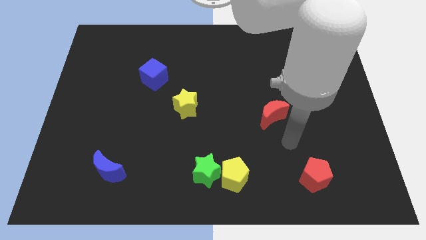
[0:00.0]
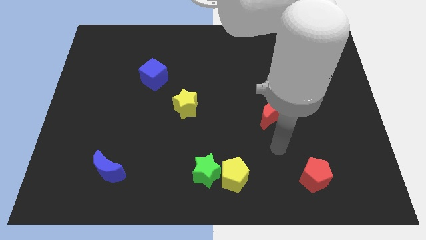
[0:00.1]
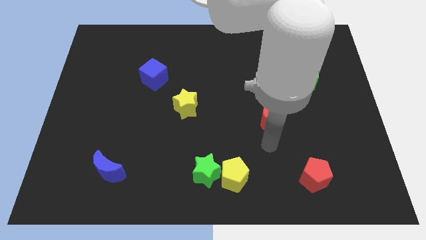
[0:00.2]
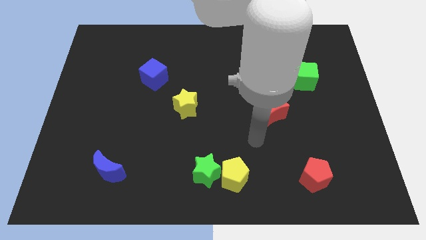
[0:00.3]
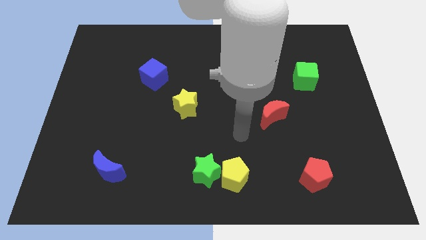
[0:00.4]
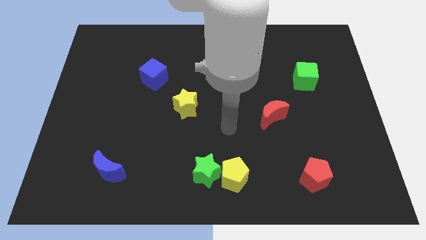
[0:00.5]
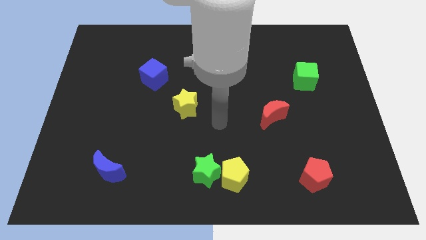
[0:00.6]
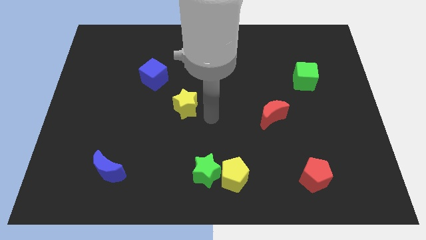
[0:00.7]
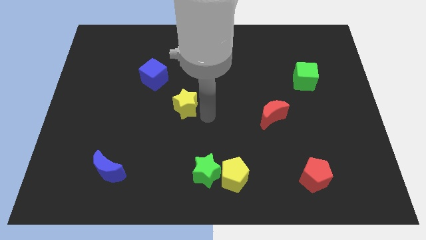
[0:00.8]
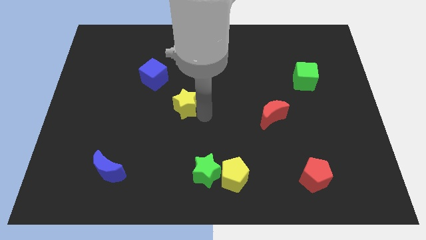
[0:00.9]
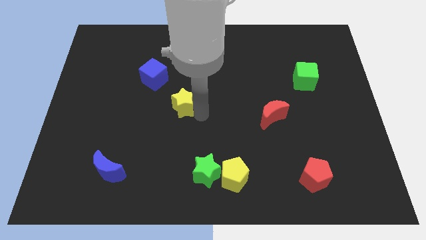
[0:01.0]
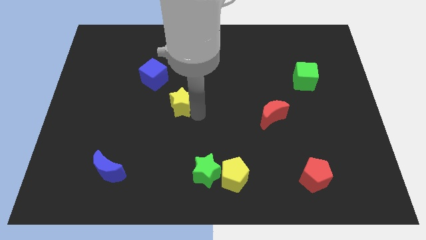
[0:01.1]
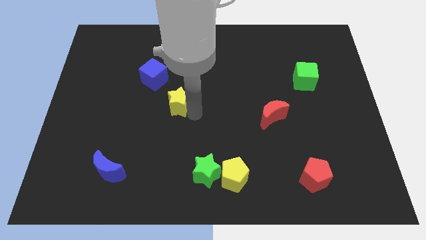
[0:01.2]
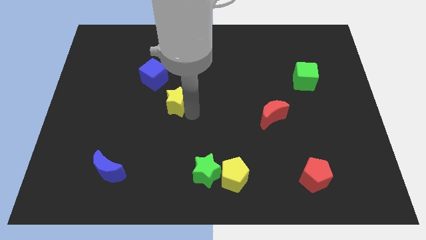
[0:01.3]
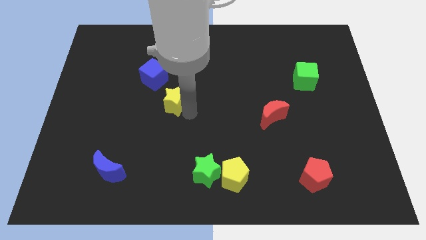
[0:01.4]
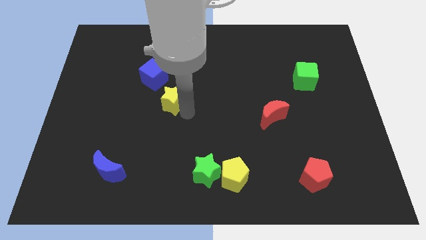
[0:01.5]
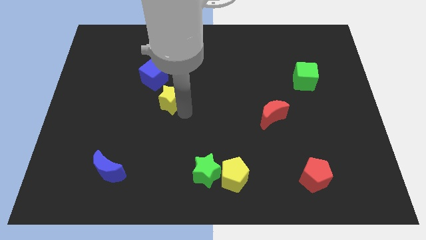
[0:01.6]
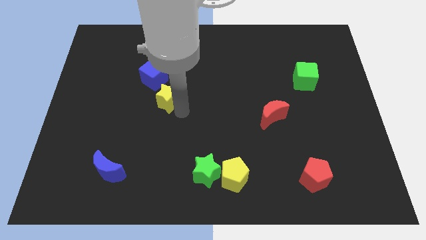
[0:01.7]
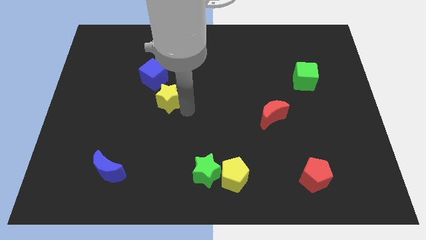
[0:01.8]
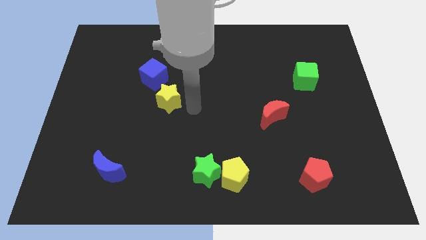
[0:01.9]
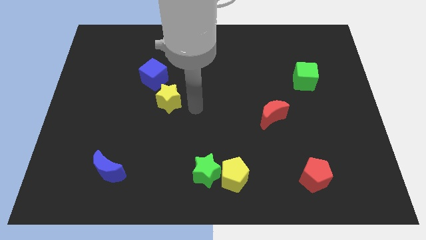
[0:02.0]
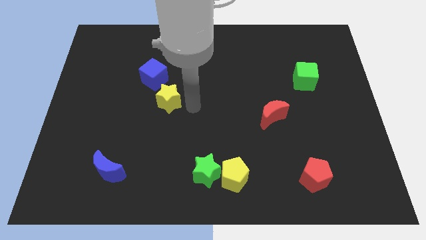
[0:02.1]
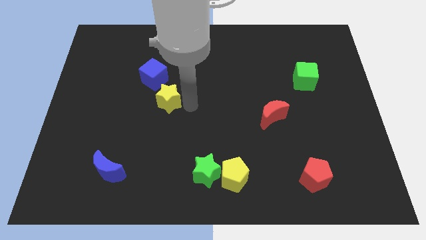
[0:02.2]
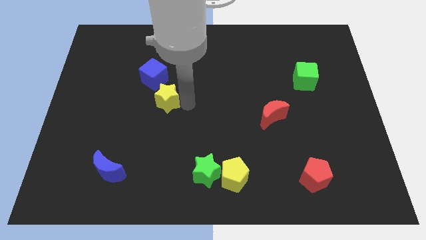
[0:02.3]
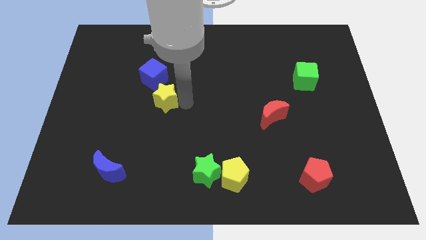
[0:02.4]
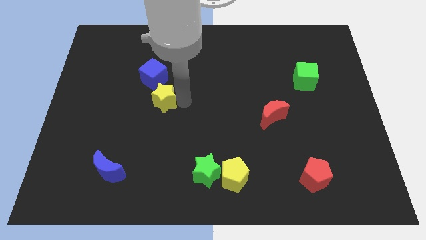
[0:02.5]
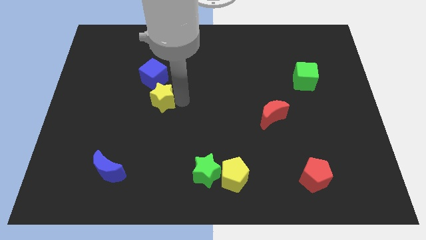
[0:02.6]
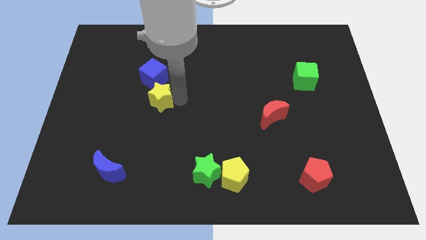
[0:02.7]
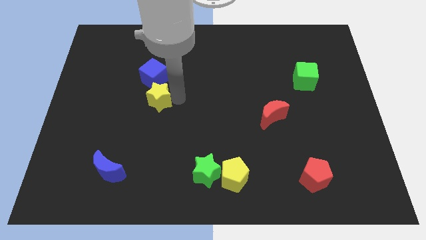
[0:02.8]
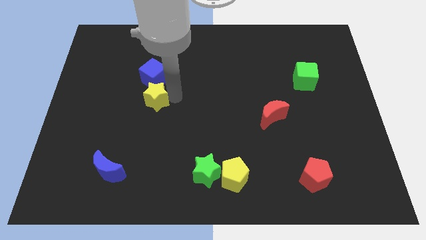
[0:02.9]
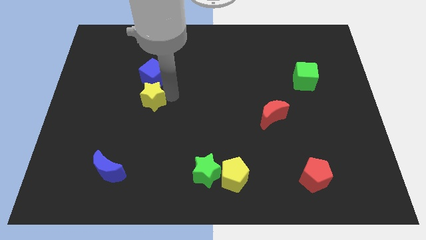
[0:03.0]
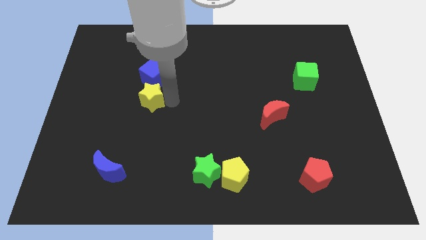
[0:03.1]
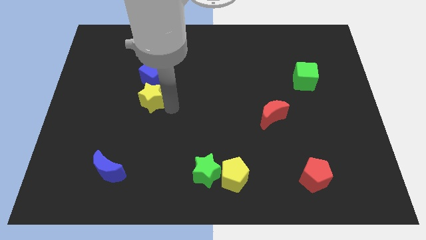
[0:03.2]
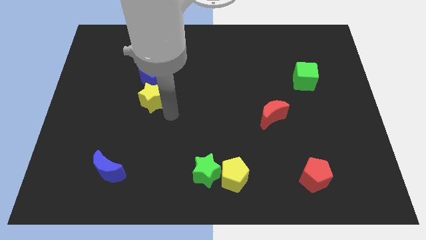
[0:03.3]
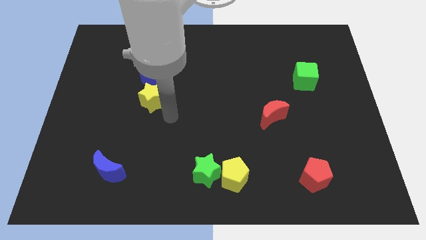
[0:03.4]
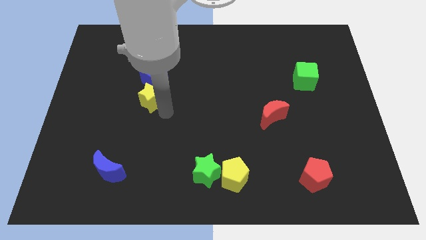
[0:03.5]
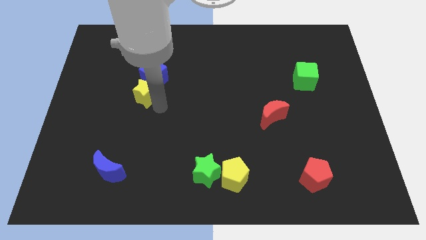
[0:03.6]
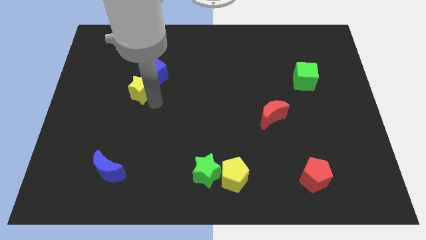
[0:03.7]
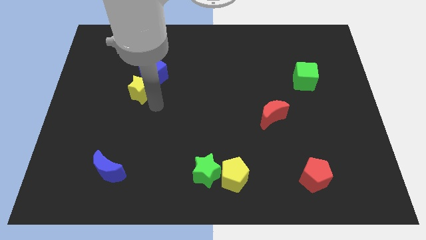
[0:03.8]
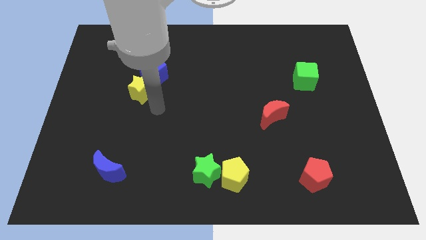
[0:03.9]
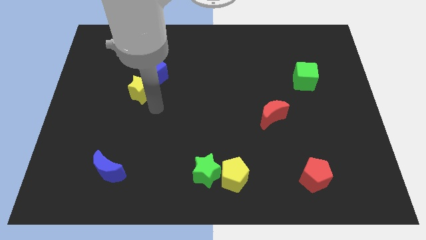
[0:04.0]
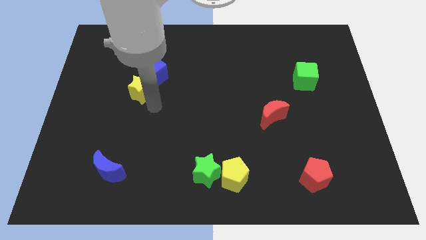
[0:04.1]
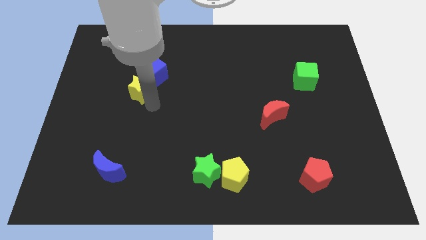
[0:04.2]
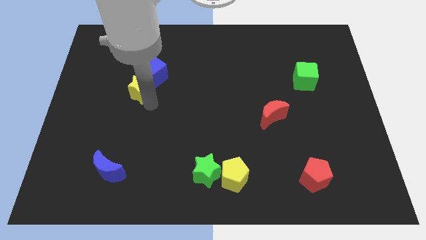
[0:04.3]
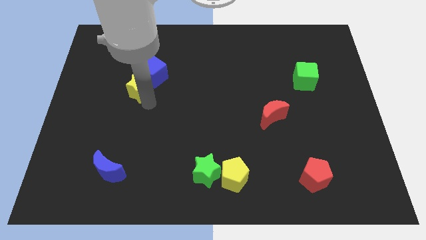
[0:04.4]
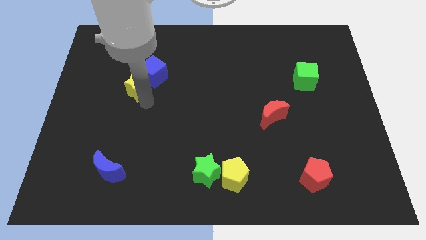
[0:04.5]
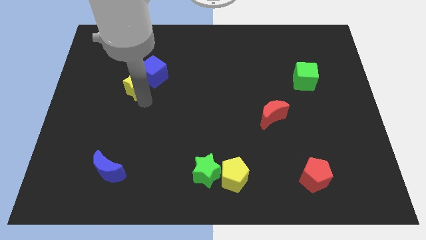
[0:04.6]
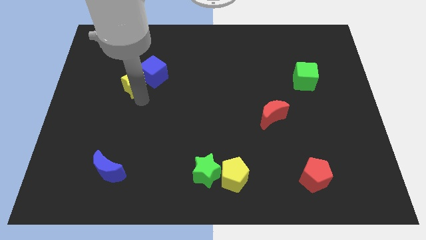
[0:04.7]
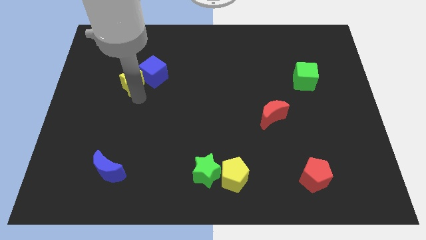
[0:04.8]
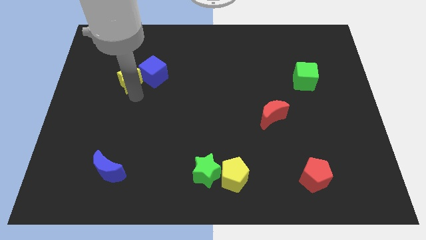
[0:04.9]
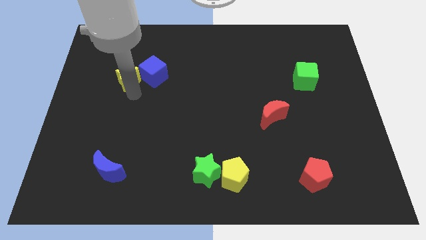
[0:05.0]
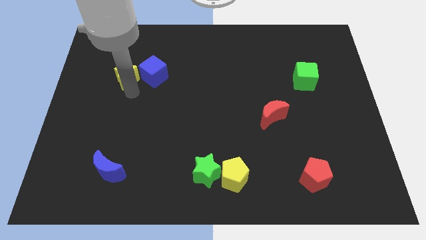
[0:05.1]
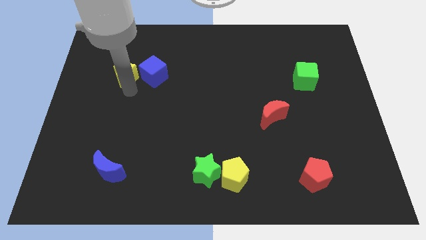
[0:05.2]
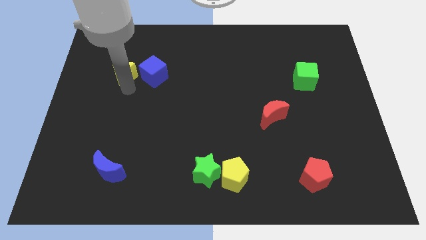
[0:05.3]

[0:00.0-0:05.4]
move the yellow star to the top left side of the blue cube

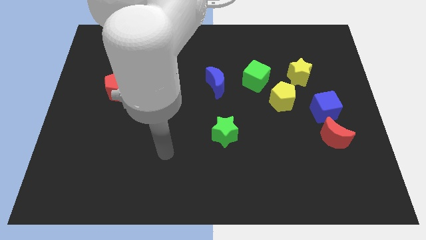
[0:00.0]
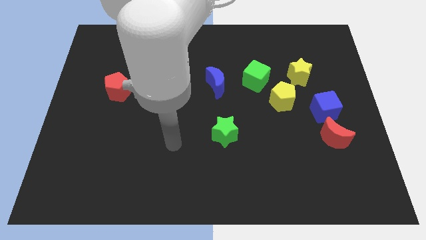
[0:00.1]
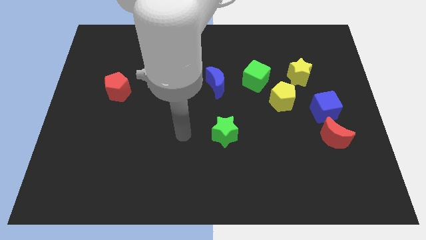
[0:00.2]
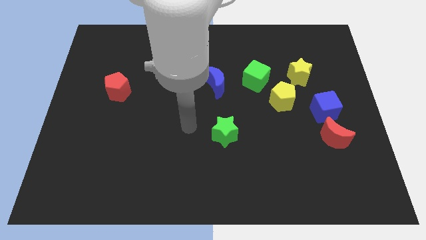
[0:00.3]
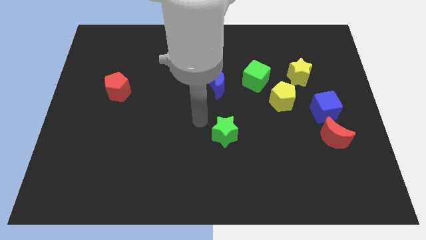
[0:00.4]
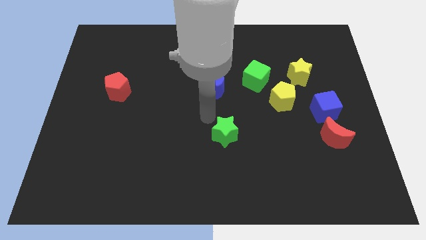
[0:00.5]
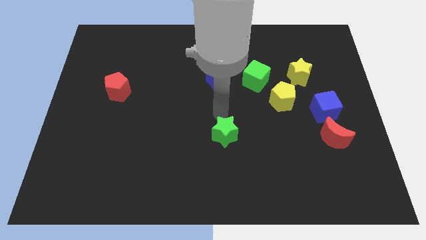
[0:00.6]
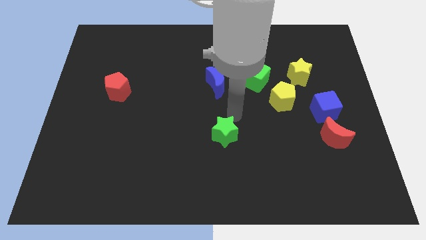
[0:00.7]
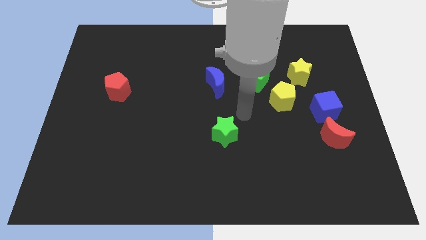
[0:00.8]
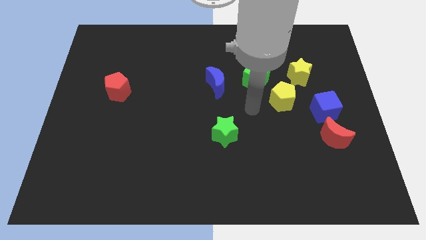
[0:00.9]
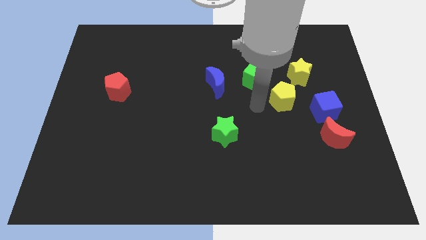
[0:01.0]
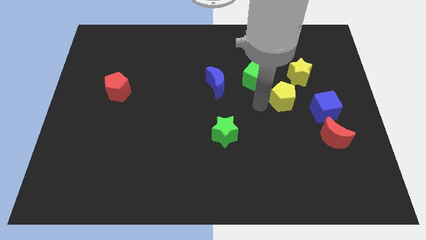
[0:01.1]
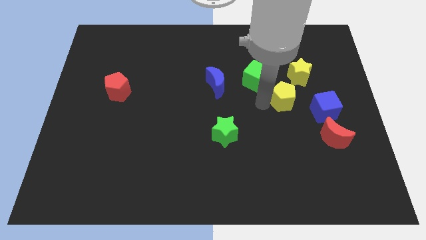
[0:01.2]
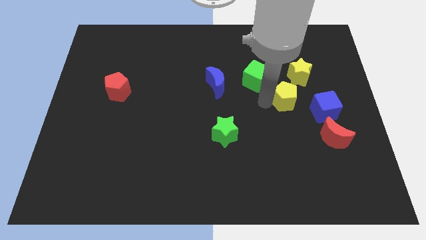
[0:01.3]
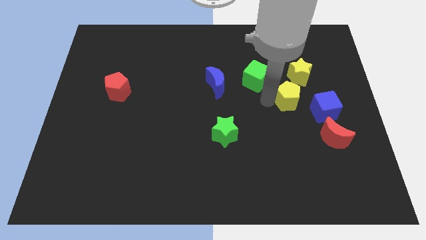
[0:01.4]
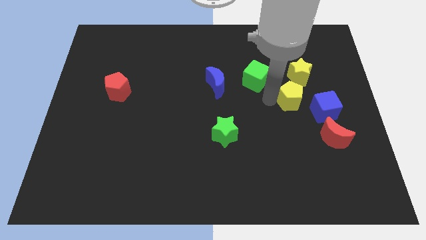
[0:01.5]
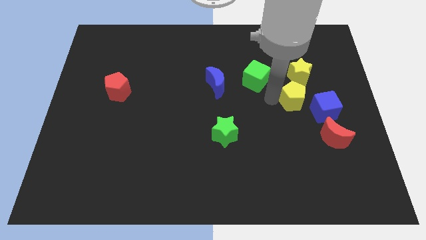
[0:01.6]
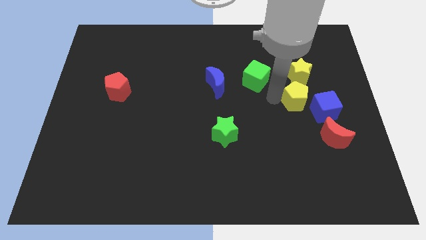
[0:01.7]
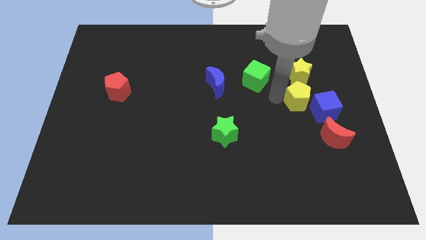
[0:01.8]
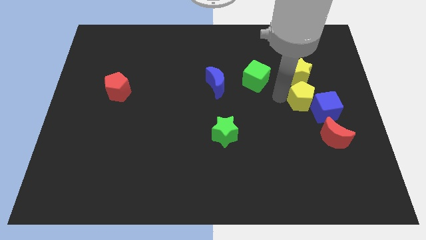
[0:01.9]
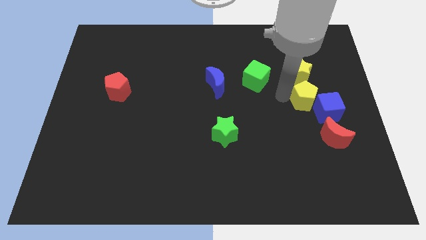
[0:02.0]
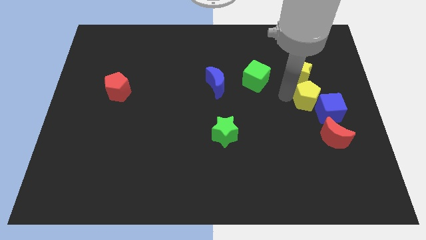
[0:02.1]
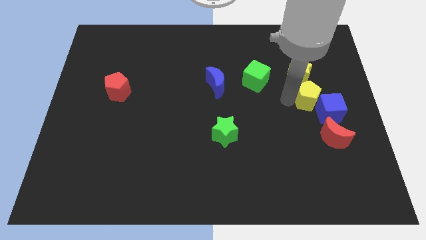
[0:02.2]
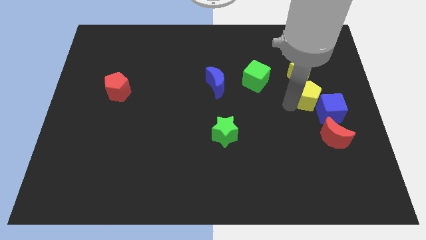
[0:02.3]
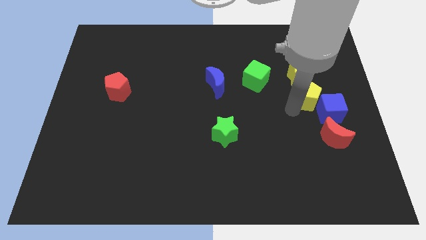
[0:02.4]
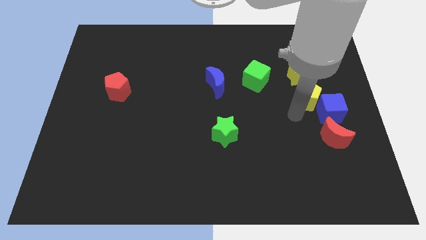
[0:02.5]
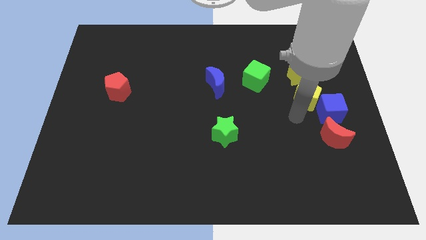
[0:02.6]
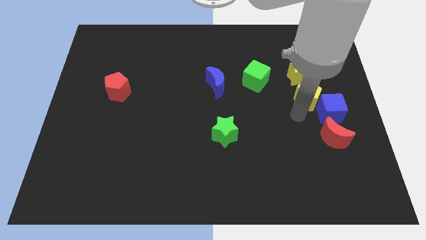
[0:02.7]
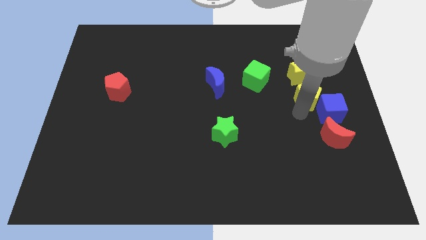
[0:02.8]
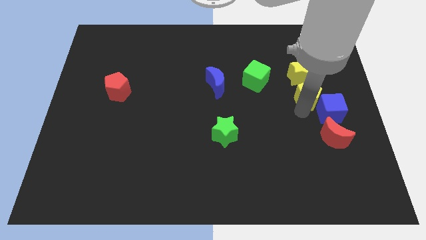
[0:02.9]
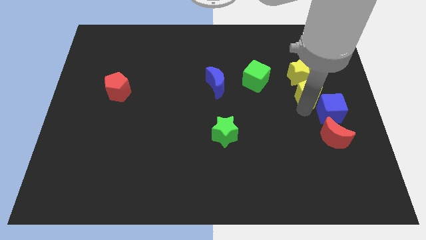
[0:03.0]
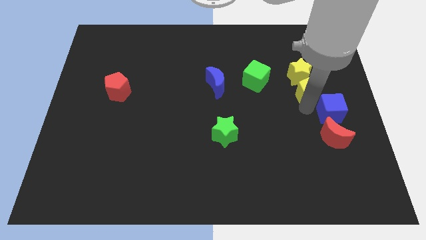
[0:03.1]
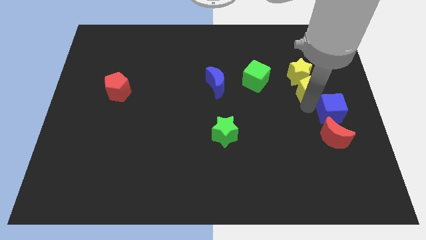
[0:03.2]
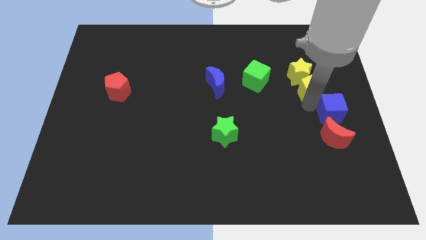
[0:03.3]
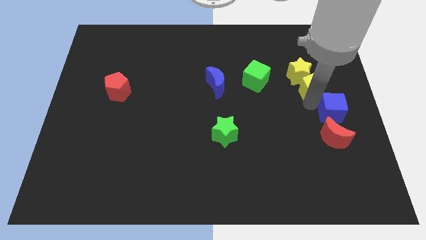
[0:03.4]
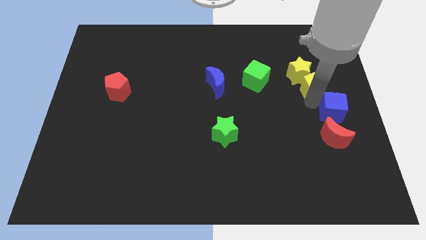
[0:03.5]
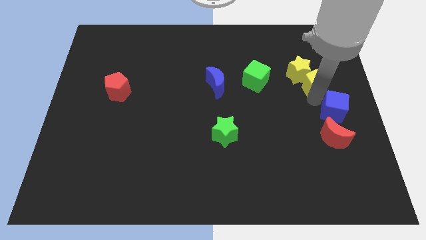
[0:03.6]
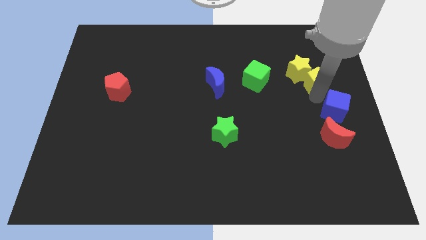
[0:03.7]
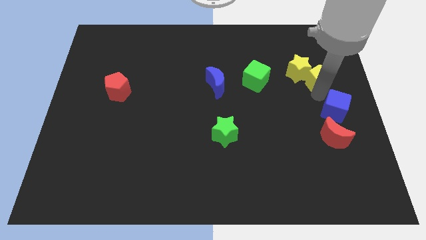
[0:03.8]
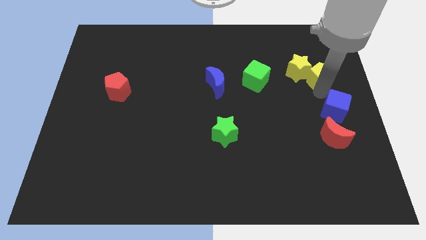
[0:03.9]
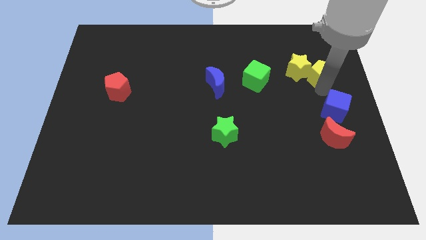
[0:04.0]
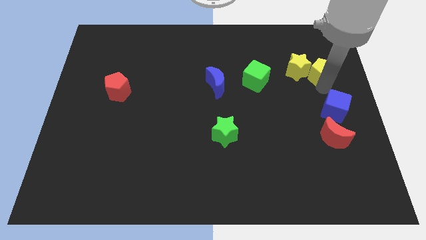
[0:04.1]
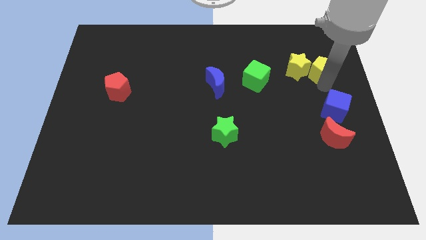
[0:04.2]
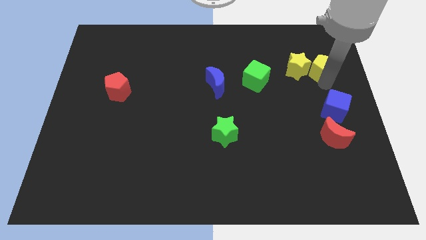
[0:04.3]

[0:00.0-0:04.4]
put the yellow pentagon to the top right of the yellow star
